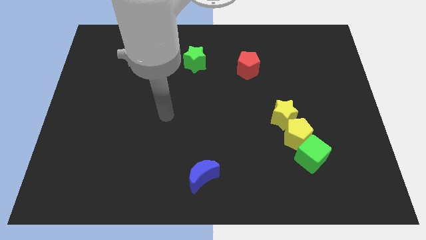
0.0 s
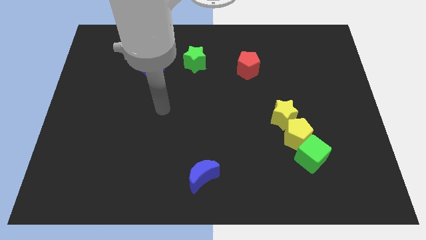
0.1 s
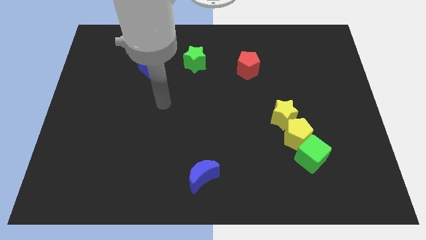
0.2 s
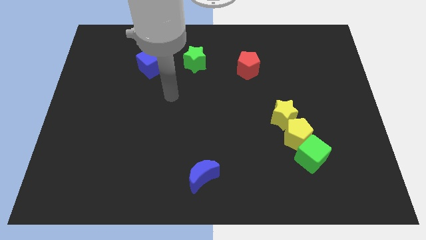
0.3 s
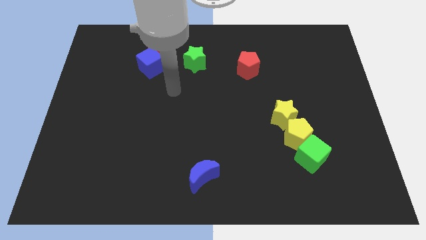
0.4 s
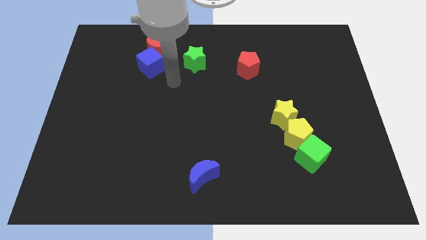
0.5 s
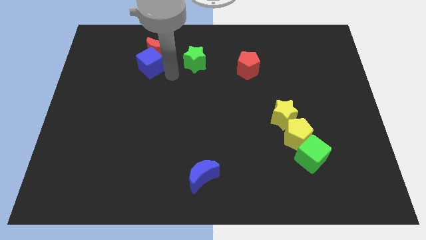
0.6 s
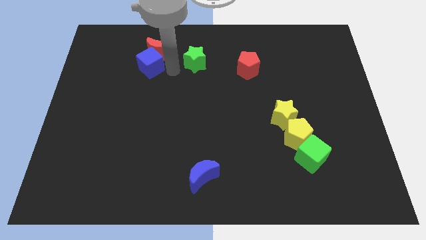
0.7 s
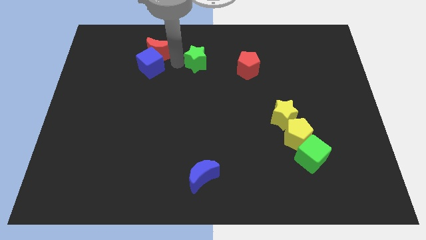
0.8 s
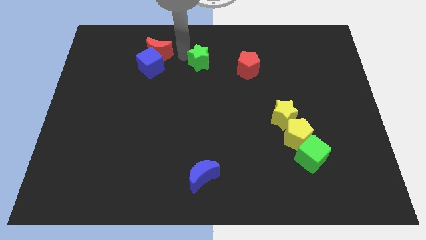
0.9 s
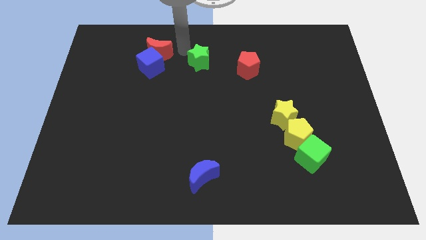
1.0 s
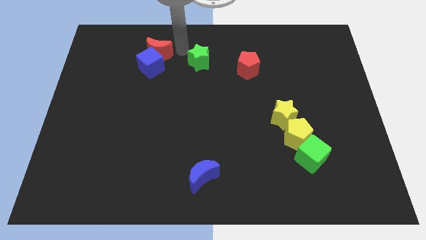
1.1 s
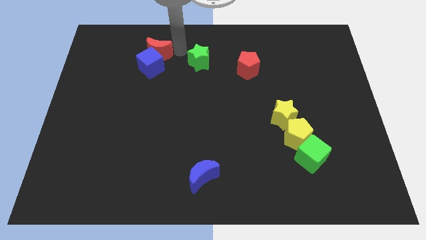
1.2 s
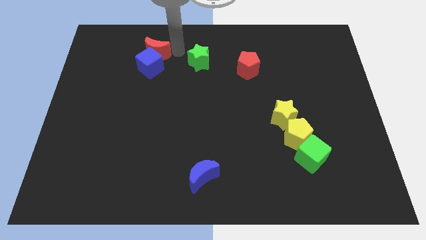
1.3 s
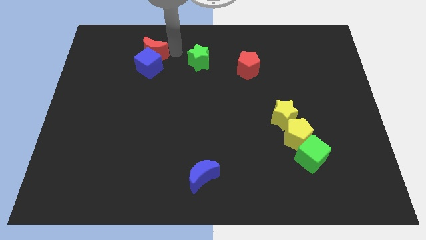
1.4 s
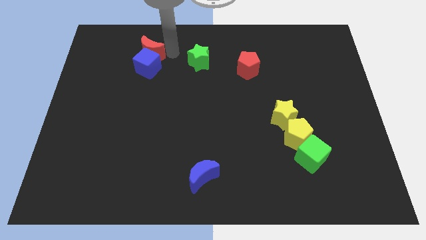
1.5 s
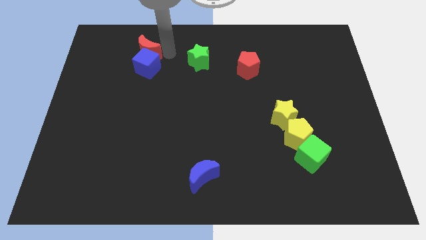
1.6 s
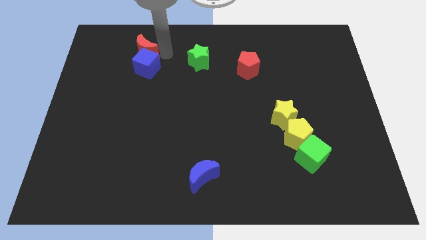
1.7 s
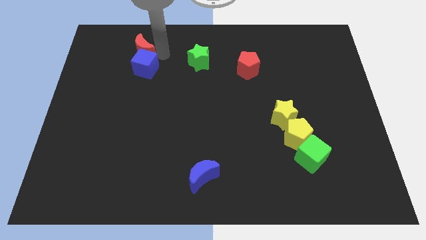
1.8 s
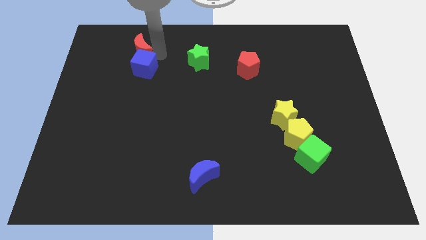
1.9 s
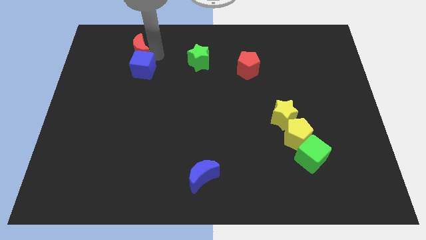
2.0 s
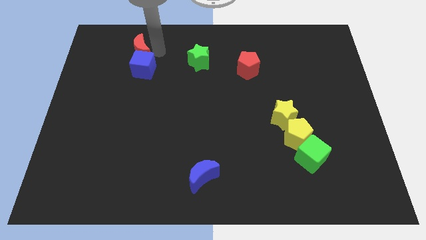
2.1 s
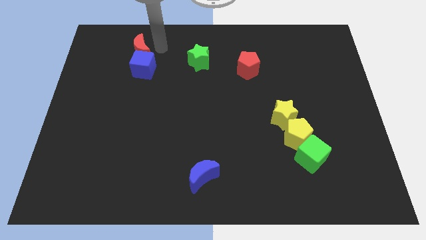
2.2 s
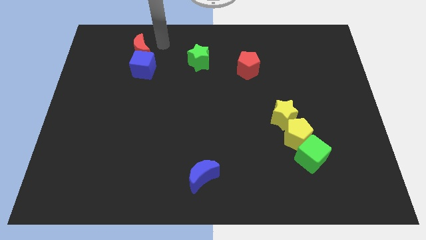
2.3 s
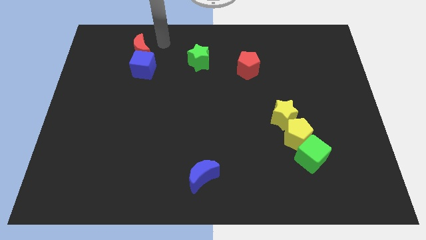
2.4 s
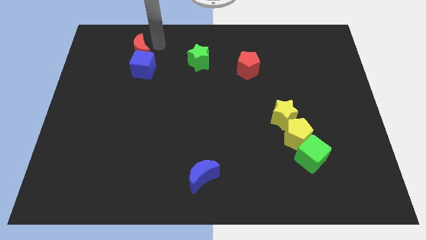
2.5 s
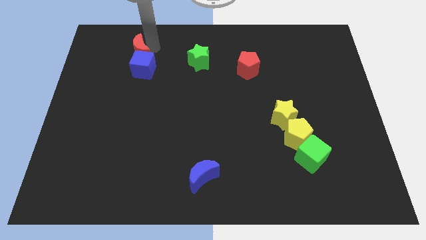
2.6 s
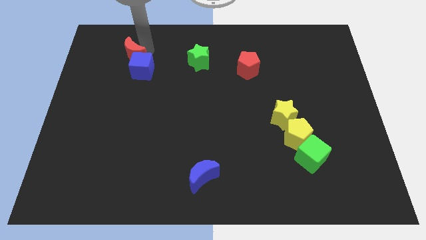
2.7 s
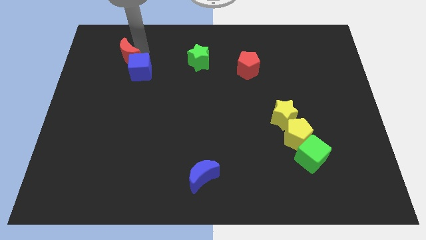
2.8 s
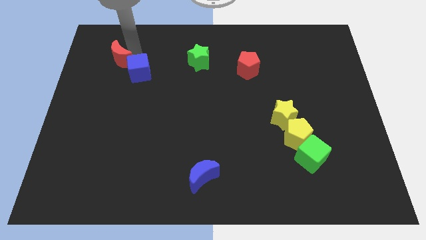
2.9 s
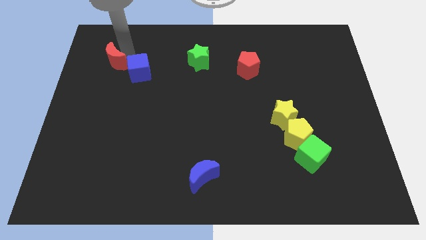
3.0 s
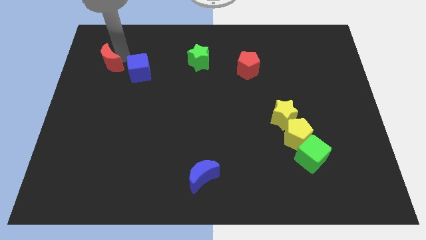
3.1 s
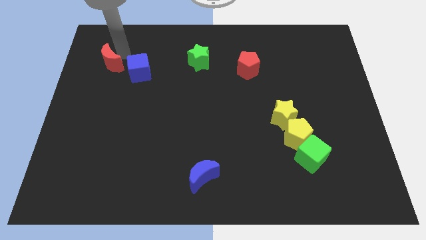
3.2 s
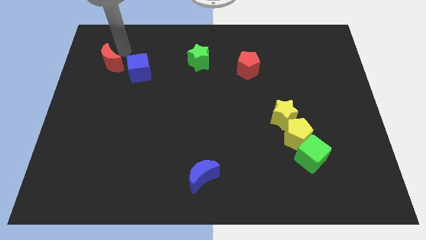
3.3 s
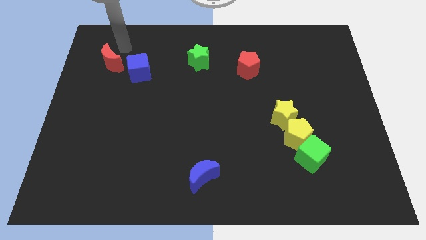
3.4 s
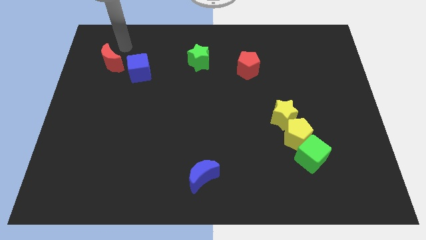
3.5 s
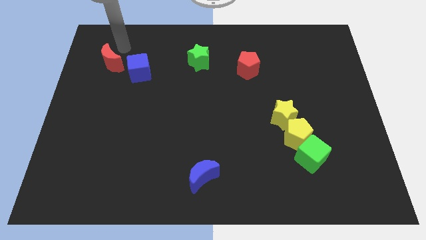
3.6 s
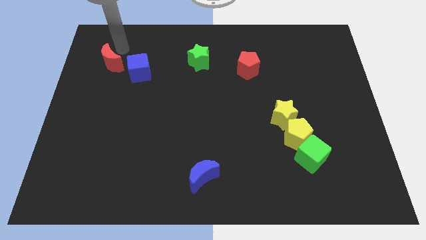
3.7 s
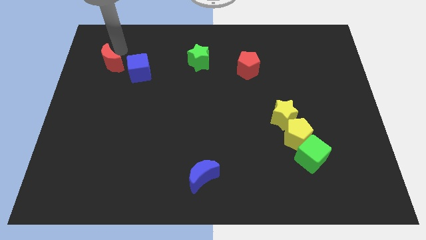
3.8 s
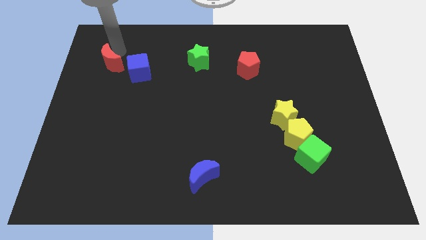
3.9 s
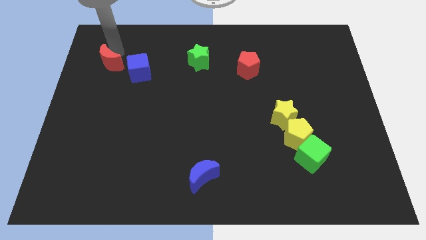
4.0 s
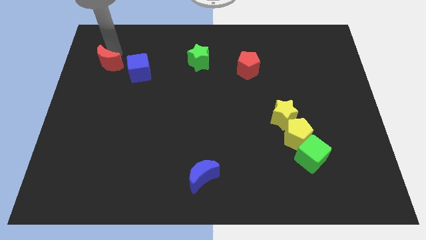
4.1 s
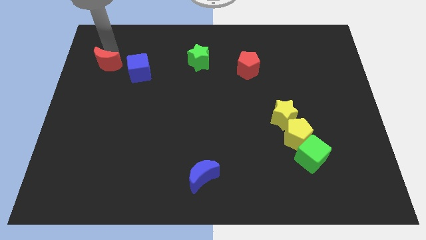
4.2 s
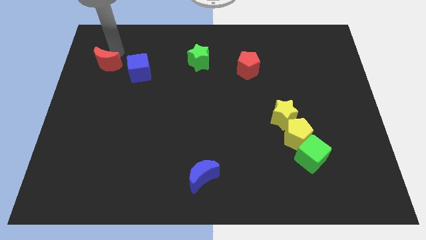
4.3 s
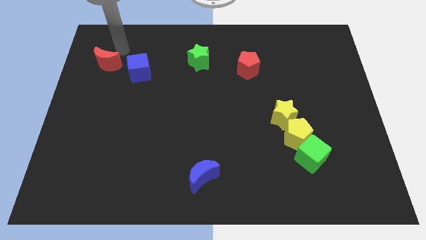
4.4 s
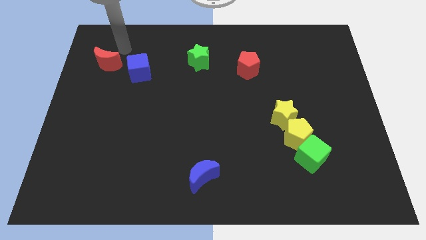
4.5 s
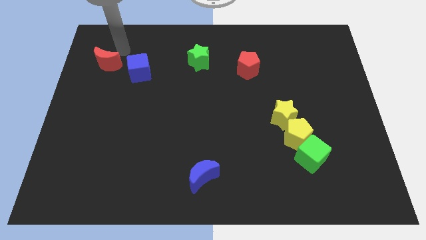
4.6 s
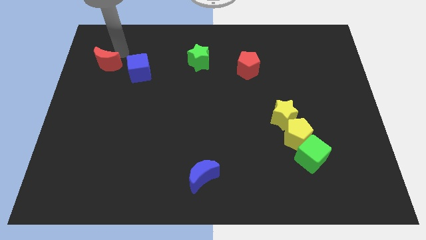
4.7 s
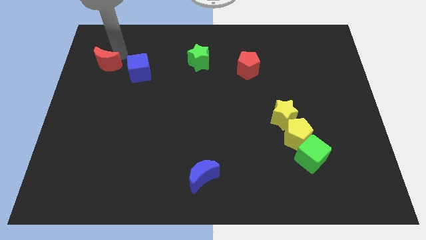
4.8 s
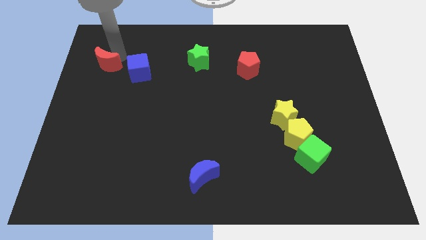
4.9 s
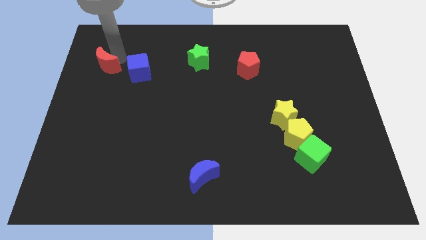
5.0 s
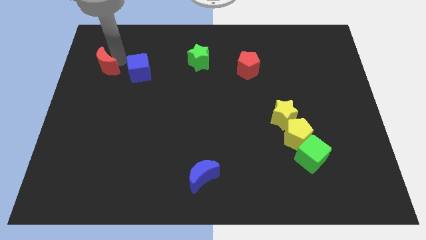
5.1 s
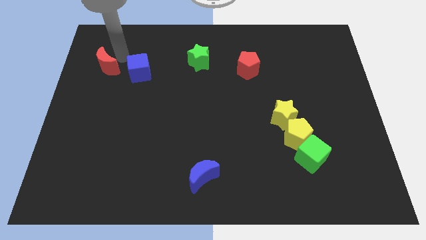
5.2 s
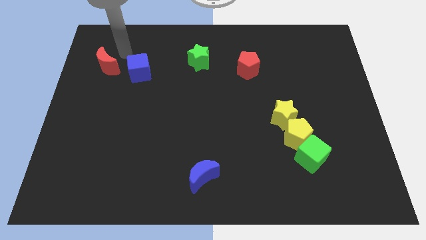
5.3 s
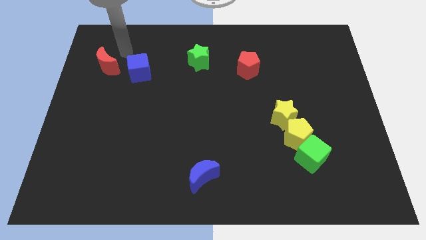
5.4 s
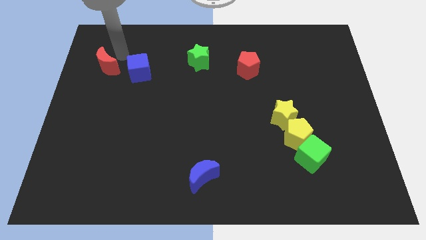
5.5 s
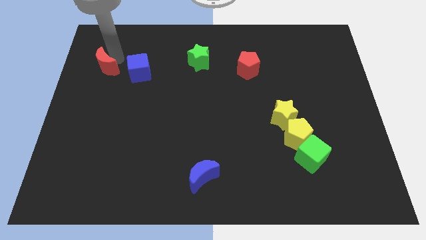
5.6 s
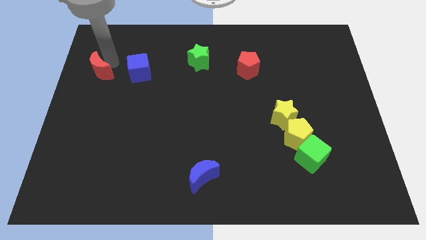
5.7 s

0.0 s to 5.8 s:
put the red moon to the left side

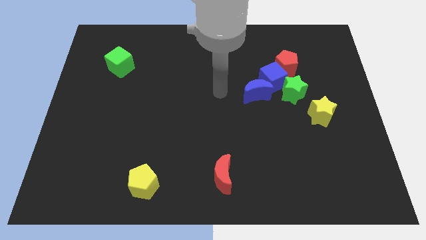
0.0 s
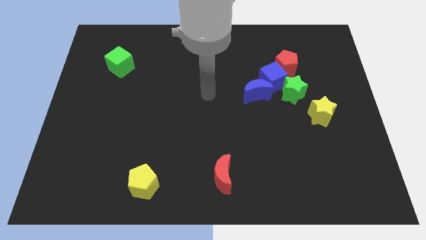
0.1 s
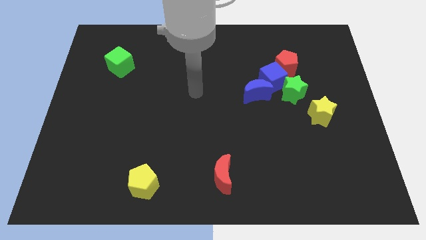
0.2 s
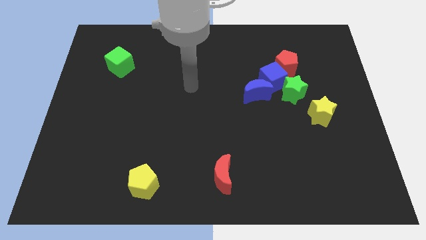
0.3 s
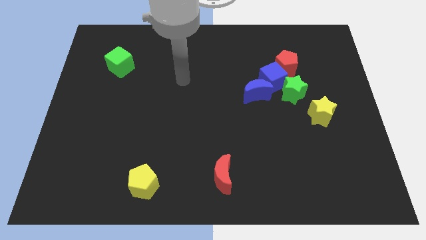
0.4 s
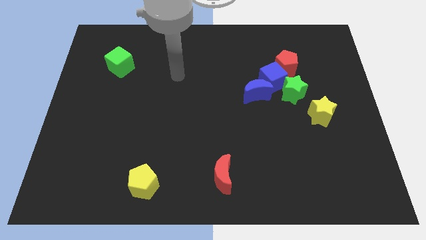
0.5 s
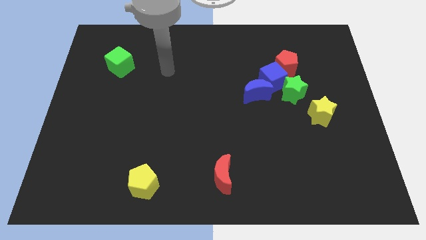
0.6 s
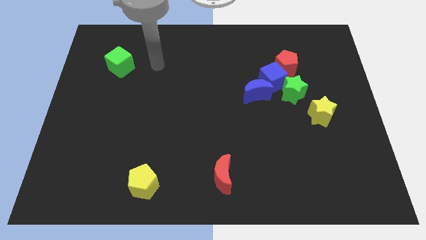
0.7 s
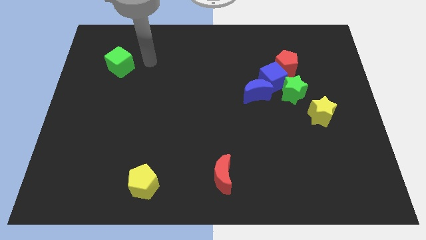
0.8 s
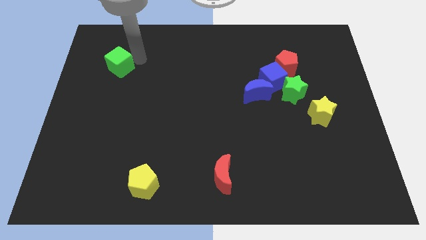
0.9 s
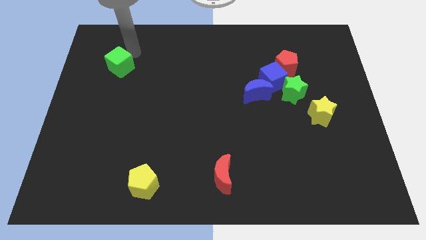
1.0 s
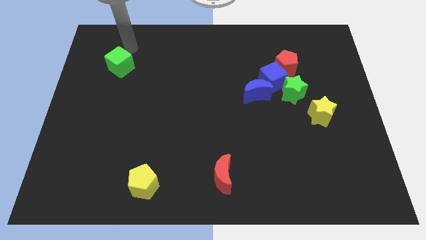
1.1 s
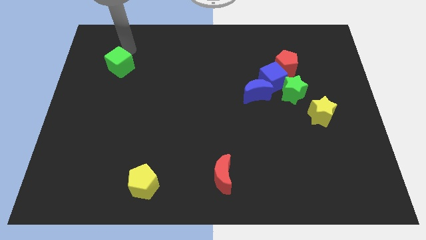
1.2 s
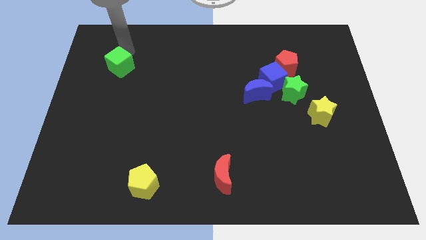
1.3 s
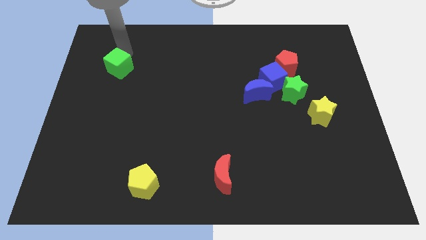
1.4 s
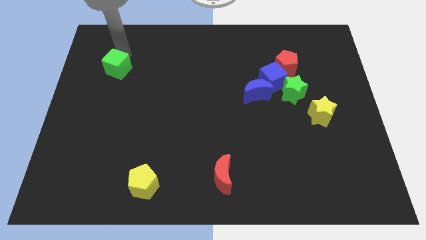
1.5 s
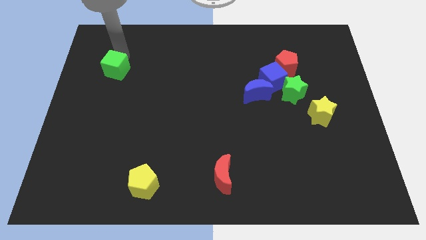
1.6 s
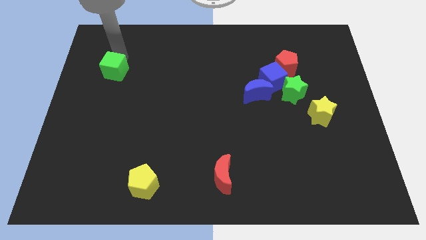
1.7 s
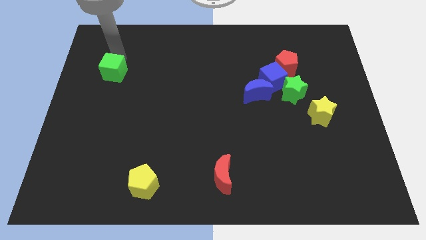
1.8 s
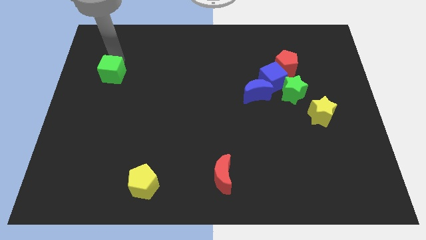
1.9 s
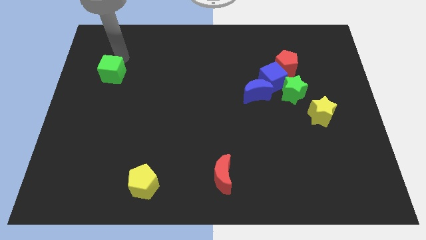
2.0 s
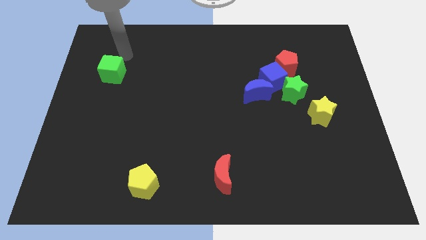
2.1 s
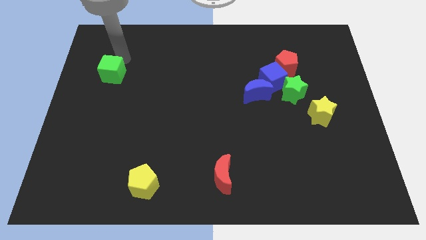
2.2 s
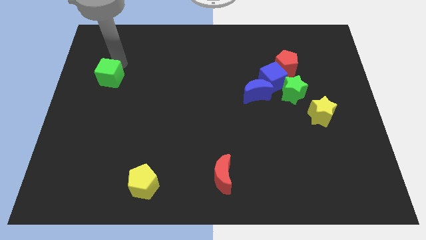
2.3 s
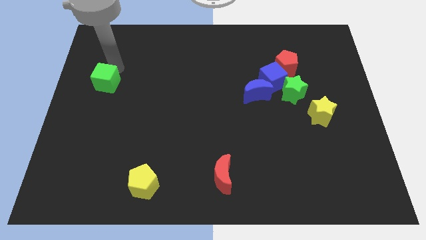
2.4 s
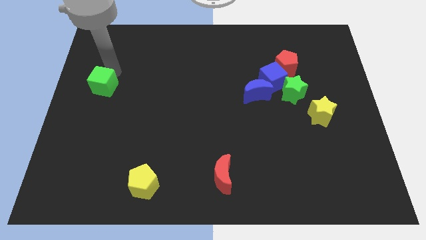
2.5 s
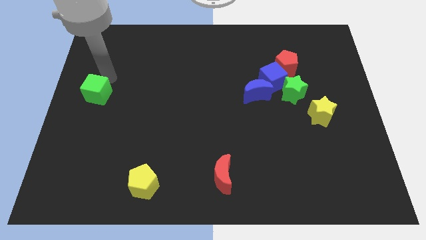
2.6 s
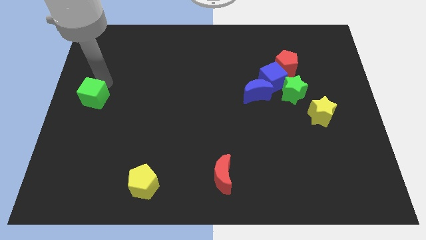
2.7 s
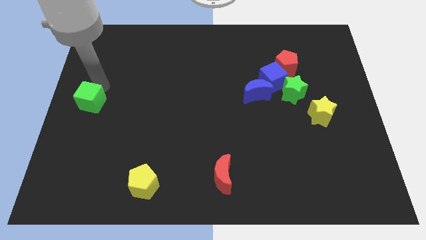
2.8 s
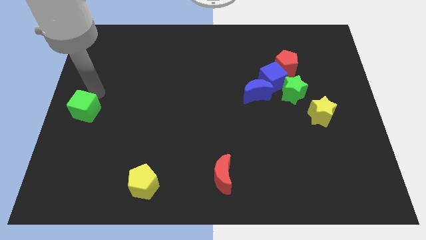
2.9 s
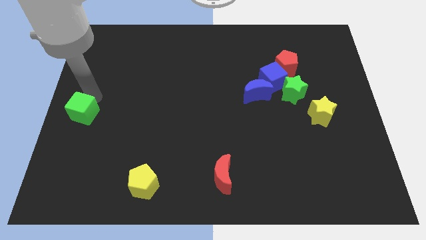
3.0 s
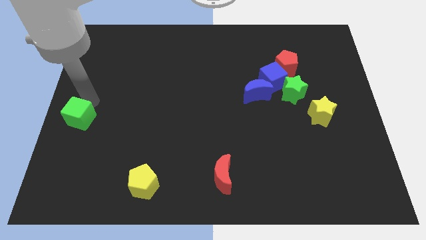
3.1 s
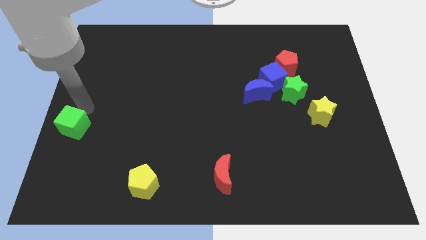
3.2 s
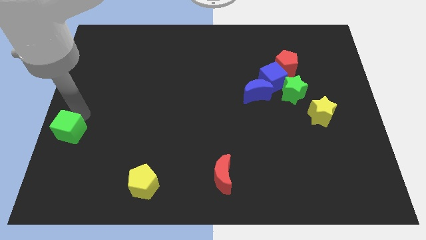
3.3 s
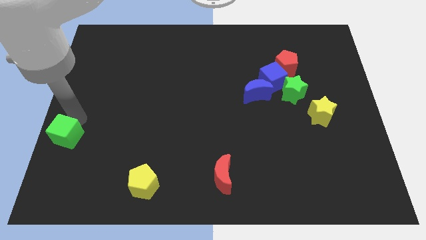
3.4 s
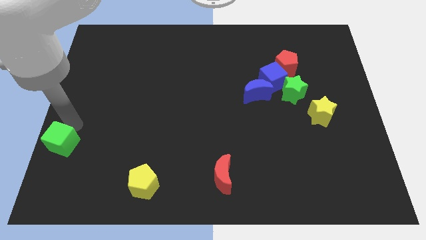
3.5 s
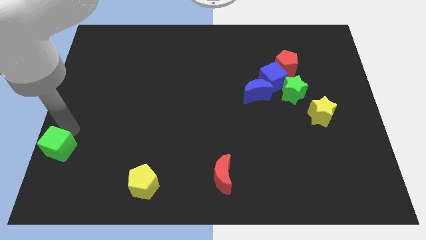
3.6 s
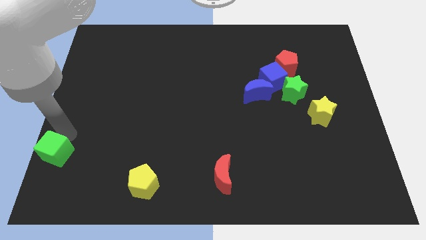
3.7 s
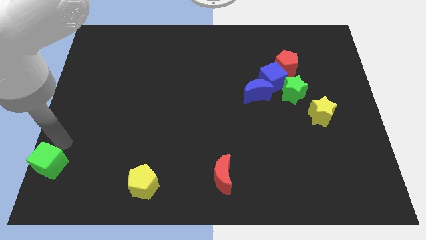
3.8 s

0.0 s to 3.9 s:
put the green cube to the bottom left
